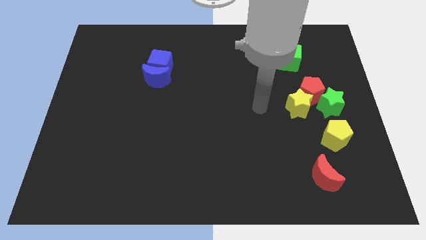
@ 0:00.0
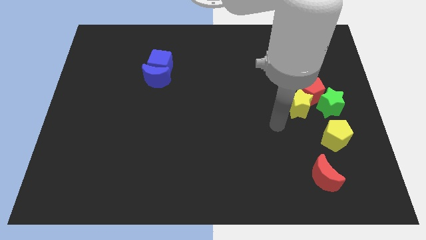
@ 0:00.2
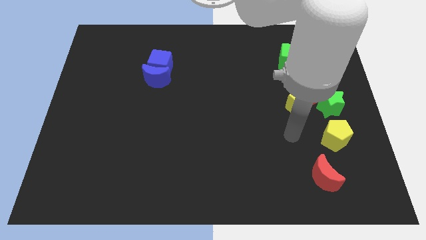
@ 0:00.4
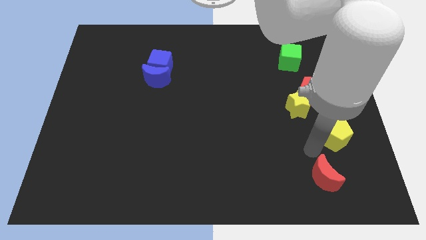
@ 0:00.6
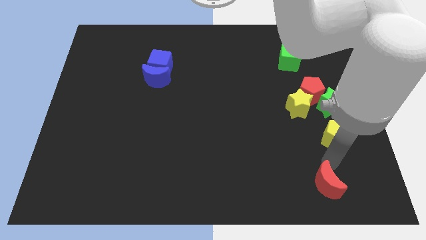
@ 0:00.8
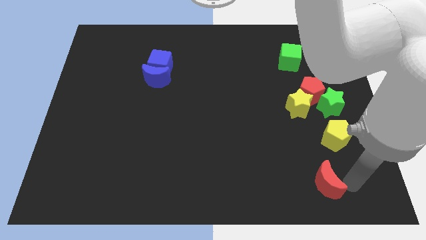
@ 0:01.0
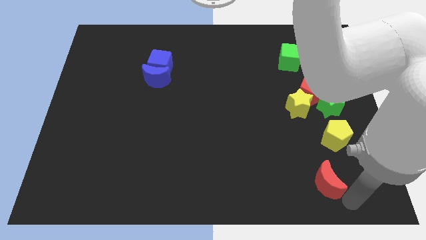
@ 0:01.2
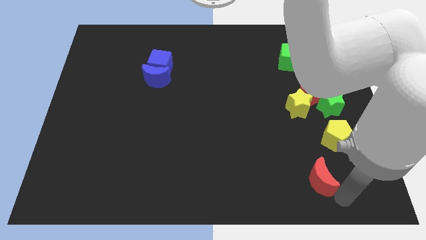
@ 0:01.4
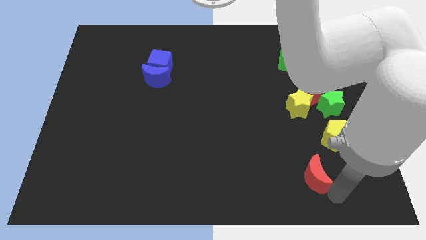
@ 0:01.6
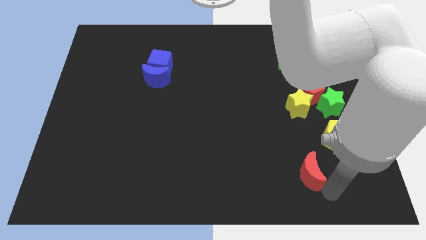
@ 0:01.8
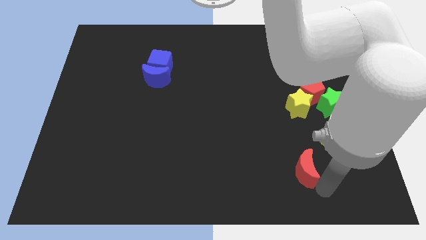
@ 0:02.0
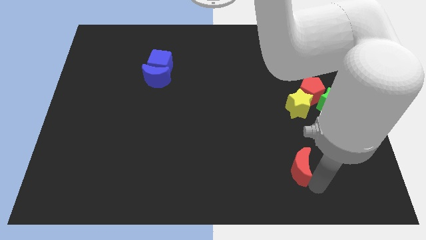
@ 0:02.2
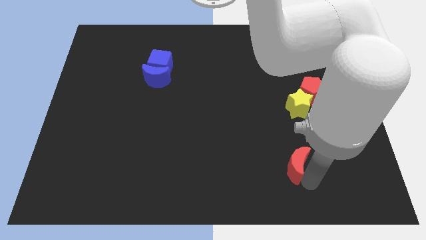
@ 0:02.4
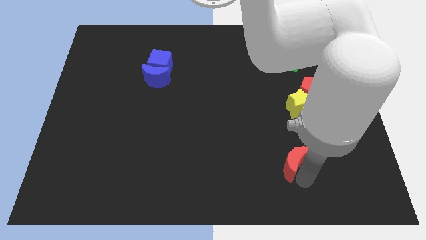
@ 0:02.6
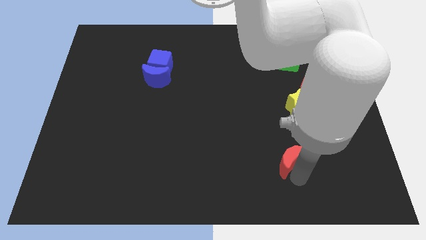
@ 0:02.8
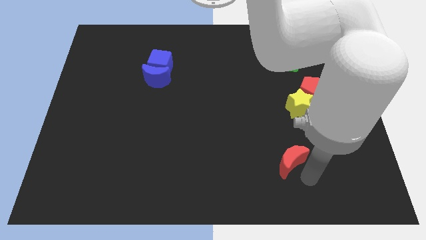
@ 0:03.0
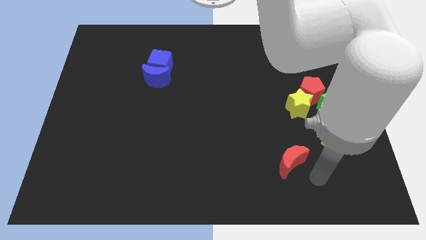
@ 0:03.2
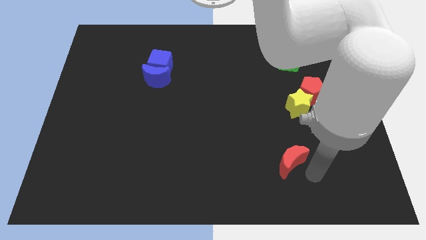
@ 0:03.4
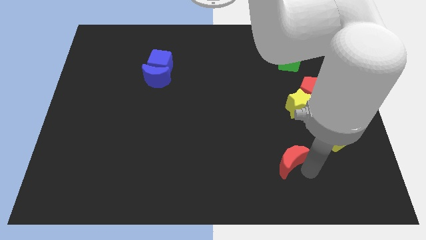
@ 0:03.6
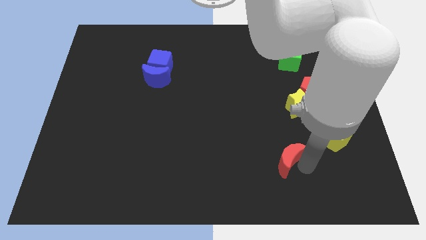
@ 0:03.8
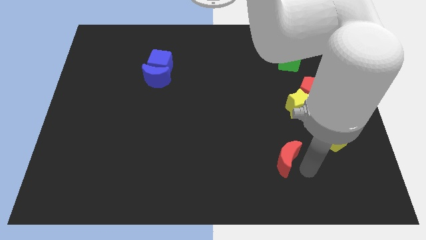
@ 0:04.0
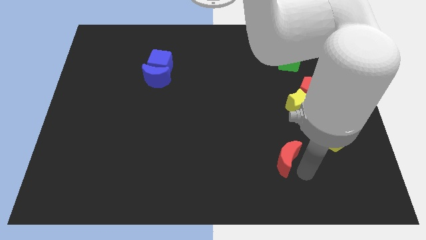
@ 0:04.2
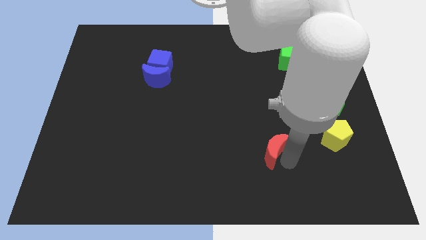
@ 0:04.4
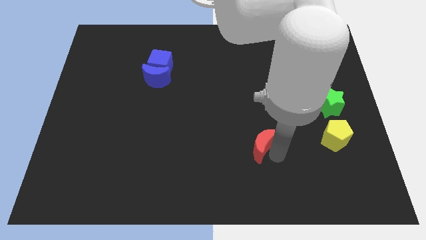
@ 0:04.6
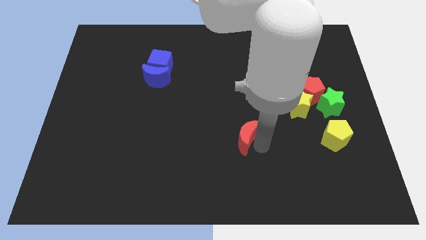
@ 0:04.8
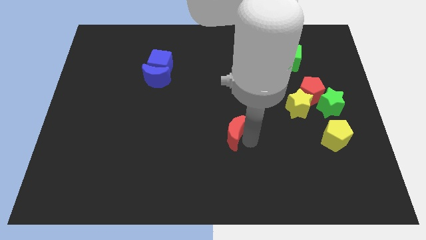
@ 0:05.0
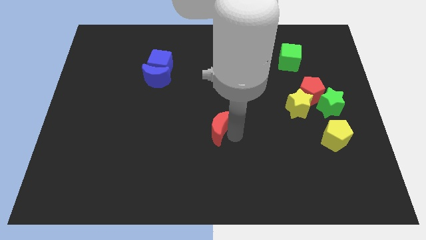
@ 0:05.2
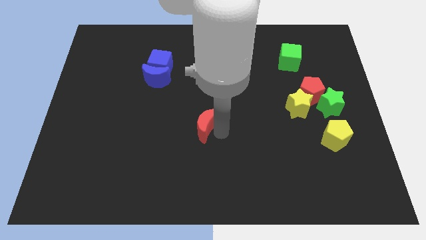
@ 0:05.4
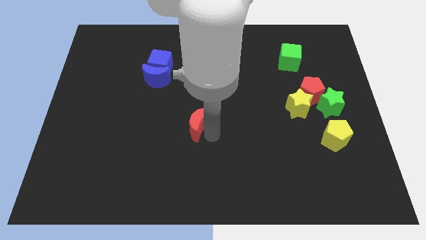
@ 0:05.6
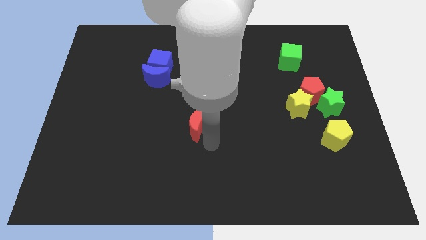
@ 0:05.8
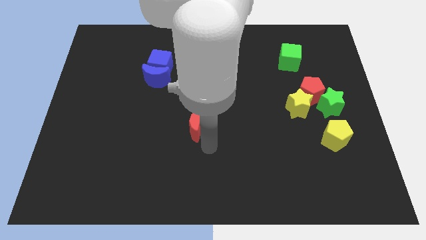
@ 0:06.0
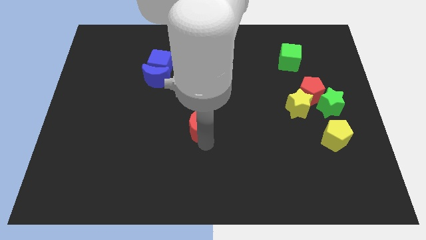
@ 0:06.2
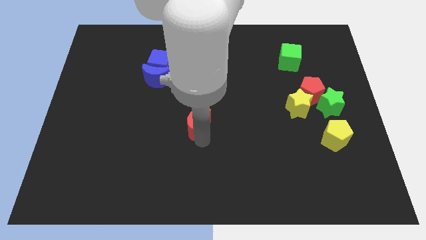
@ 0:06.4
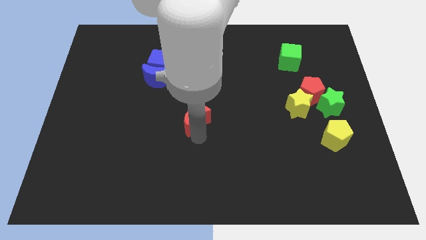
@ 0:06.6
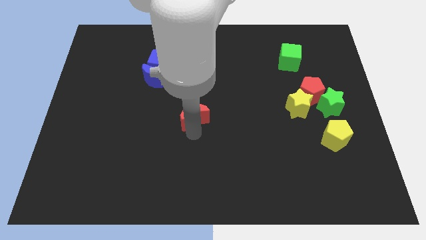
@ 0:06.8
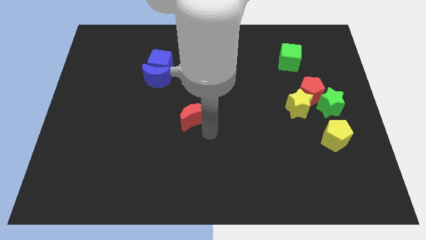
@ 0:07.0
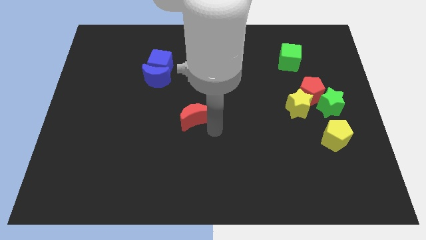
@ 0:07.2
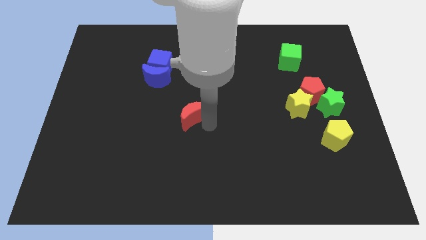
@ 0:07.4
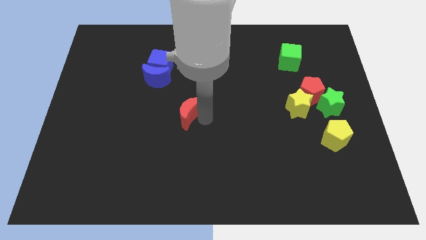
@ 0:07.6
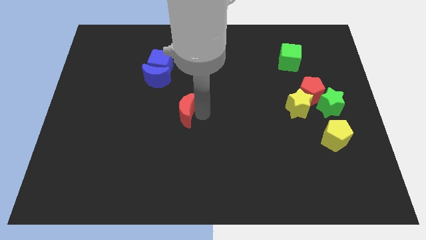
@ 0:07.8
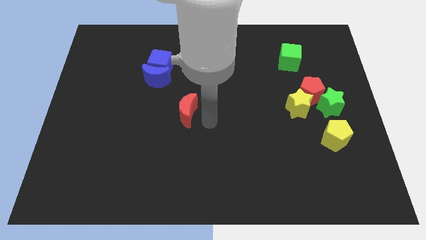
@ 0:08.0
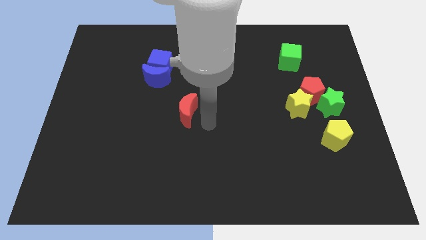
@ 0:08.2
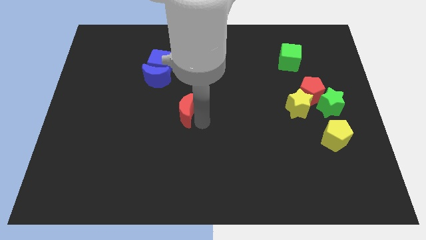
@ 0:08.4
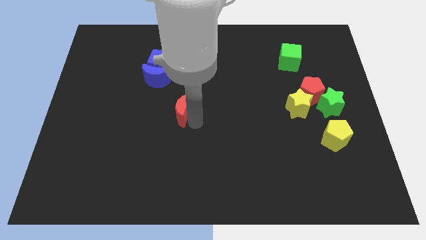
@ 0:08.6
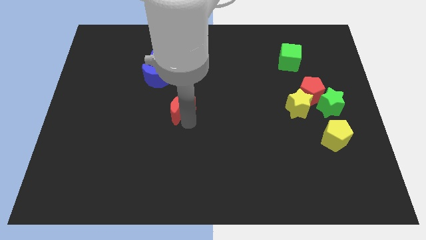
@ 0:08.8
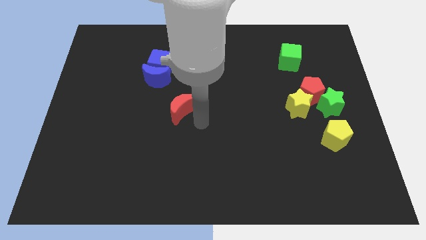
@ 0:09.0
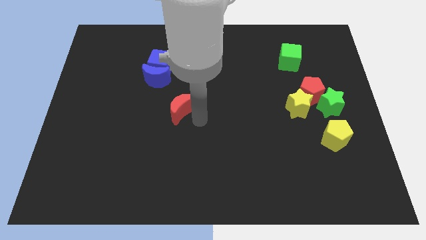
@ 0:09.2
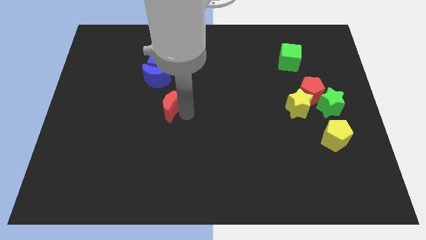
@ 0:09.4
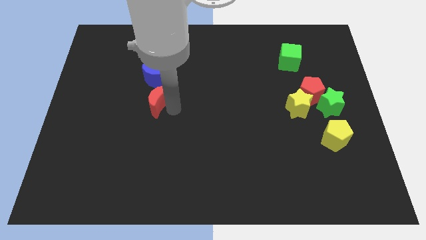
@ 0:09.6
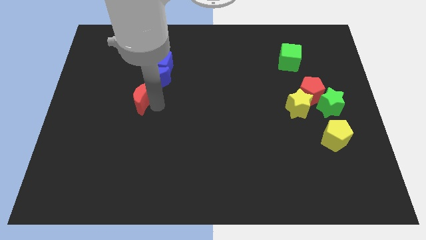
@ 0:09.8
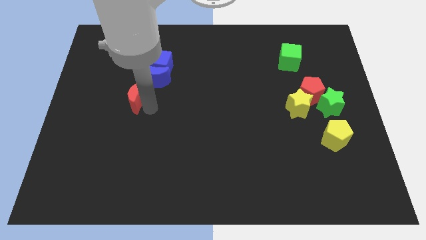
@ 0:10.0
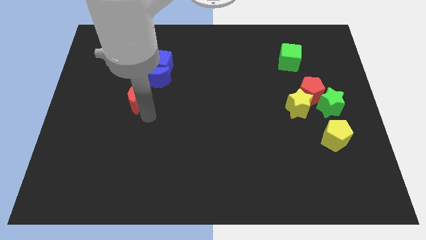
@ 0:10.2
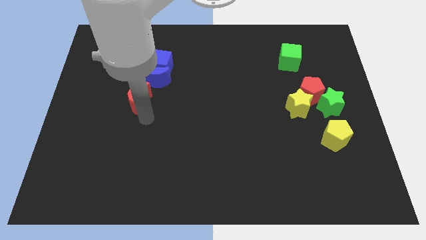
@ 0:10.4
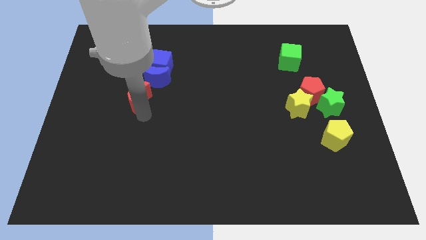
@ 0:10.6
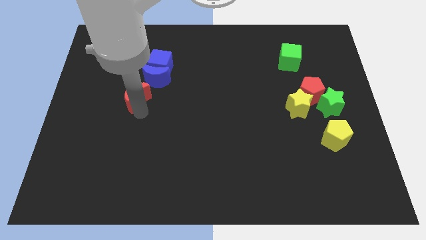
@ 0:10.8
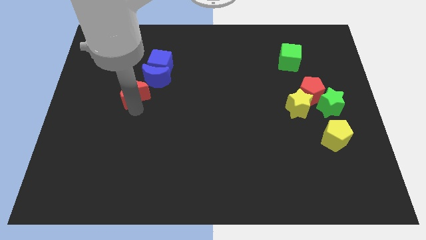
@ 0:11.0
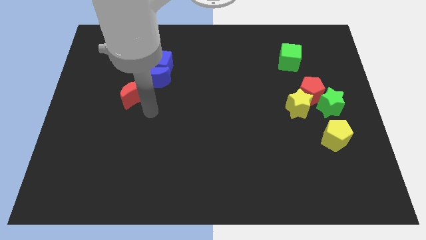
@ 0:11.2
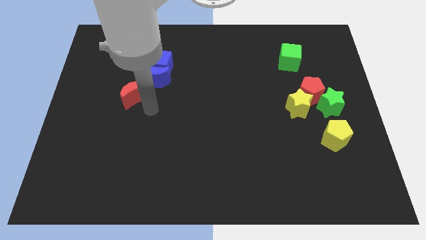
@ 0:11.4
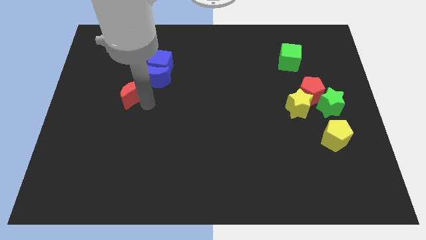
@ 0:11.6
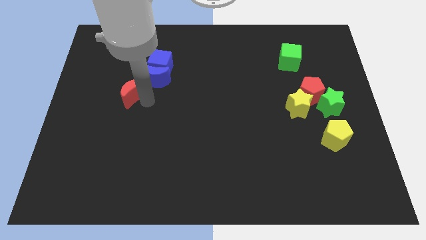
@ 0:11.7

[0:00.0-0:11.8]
move the red moon left of the blue moon

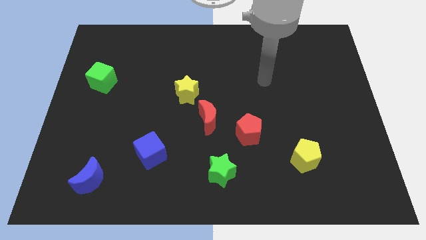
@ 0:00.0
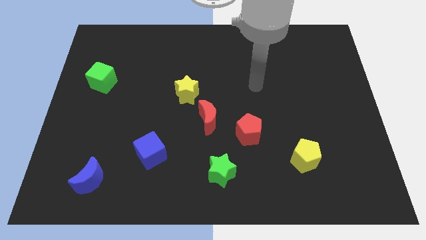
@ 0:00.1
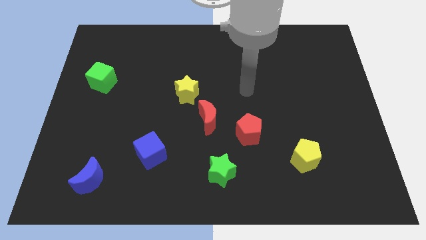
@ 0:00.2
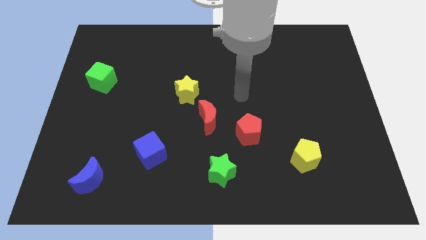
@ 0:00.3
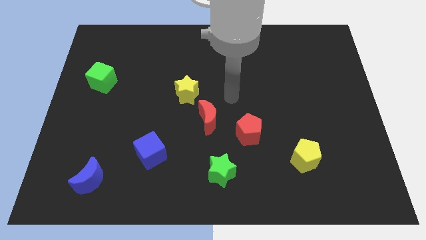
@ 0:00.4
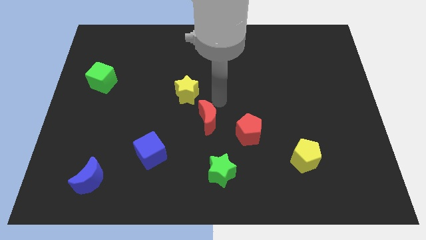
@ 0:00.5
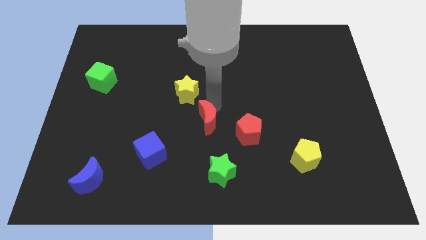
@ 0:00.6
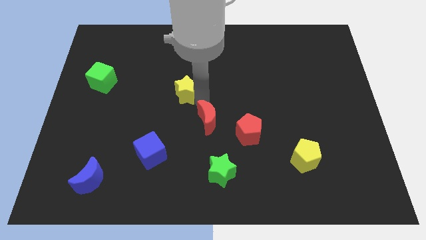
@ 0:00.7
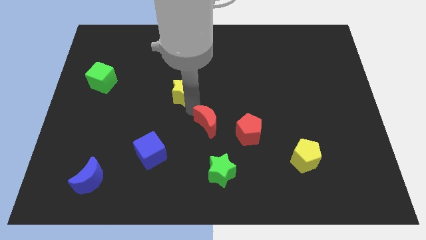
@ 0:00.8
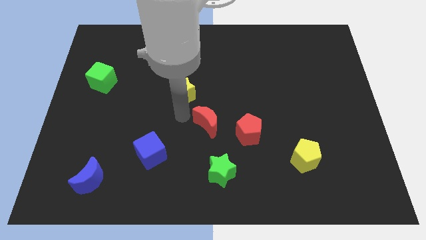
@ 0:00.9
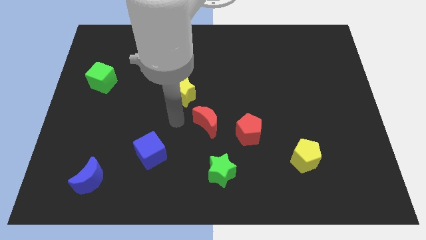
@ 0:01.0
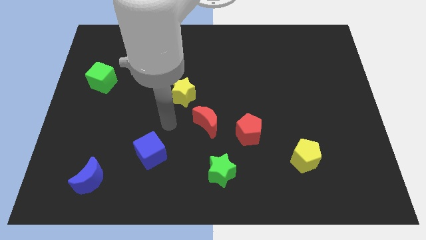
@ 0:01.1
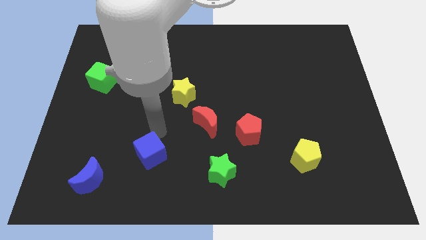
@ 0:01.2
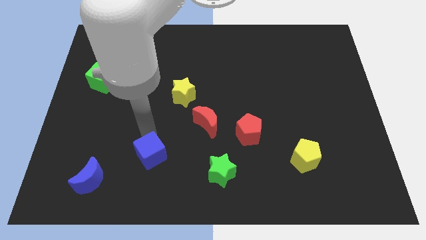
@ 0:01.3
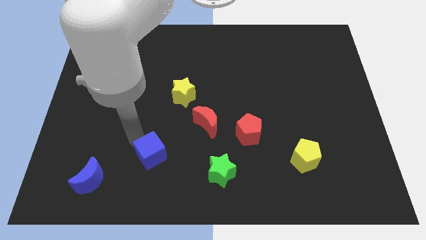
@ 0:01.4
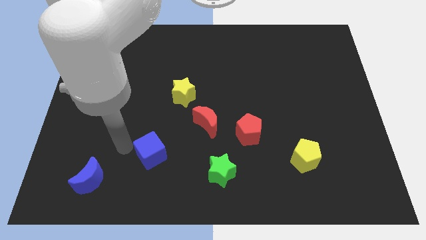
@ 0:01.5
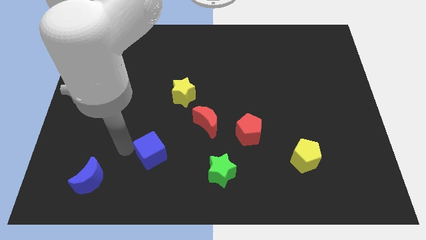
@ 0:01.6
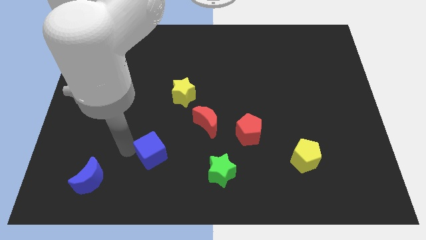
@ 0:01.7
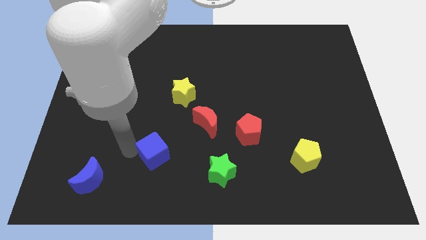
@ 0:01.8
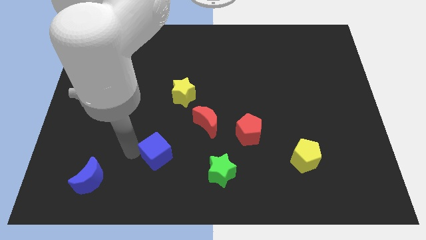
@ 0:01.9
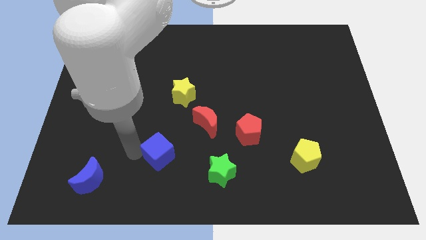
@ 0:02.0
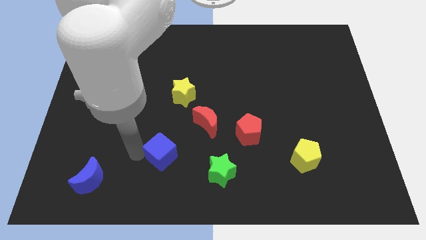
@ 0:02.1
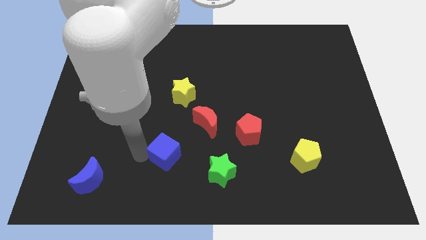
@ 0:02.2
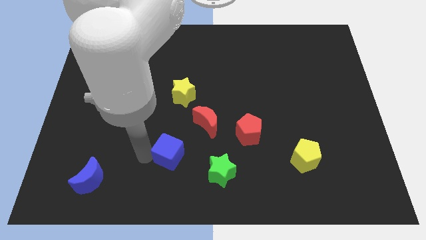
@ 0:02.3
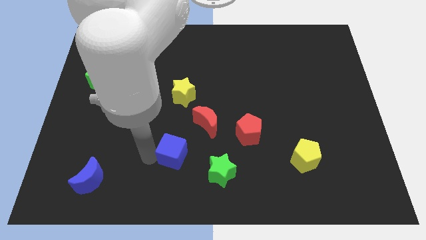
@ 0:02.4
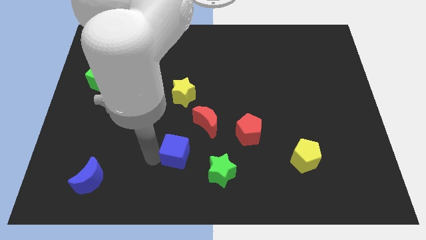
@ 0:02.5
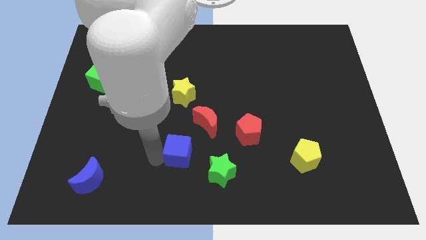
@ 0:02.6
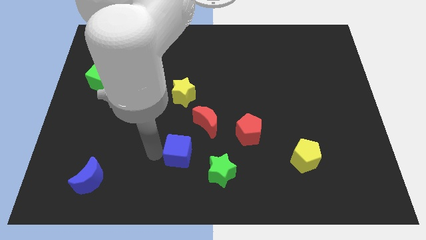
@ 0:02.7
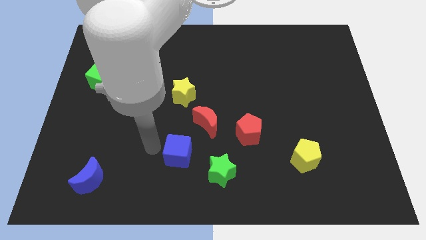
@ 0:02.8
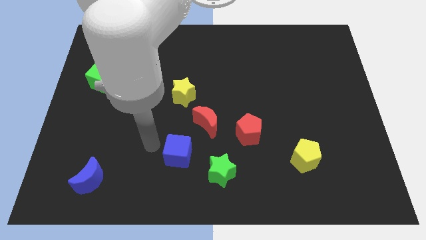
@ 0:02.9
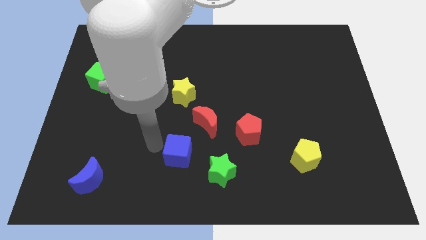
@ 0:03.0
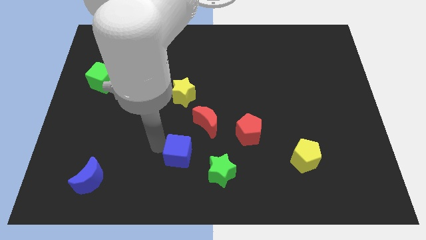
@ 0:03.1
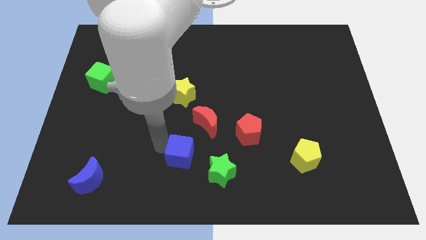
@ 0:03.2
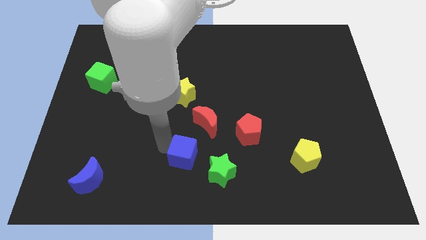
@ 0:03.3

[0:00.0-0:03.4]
put the blue cube below the red moon
